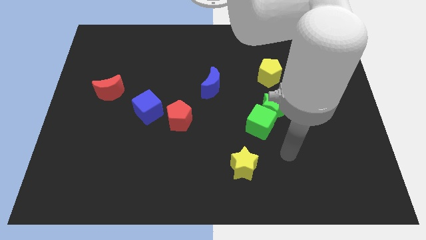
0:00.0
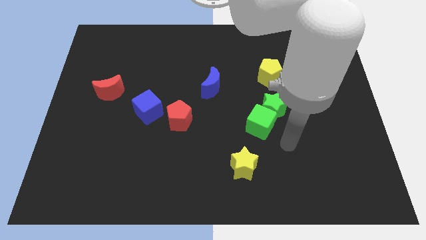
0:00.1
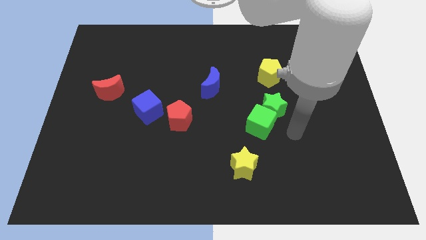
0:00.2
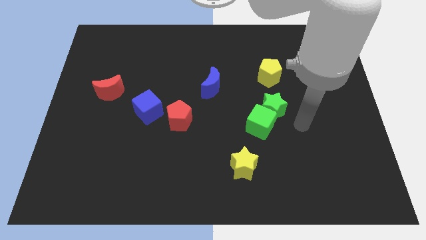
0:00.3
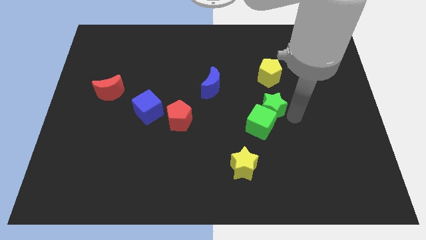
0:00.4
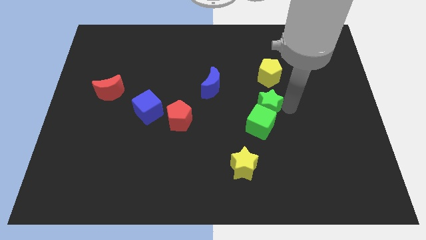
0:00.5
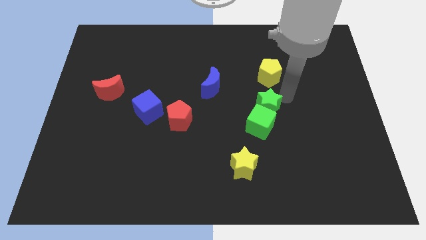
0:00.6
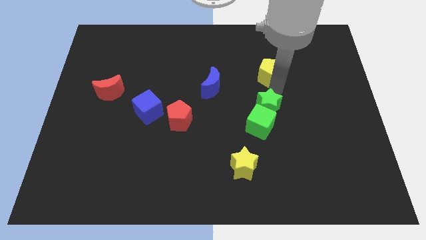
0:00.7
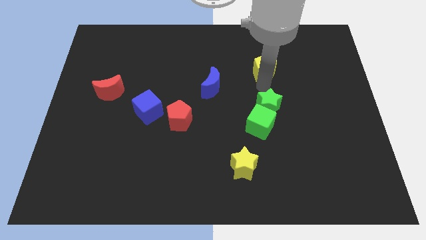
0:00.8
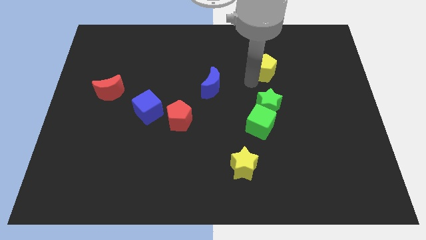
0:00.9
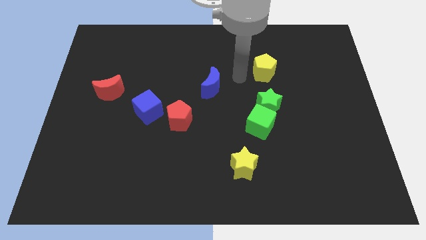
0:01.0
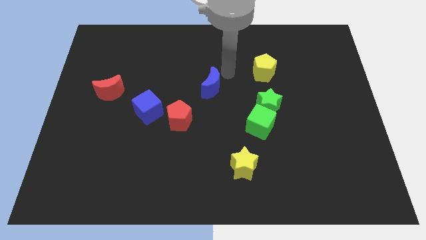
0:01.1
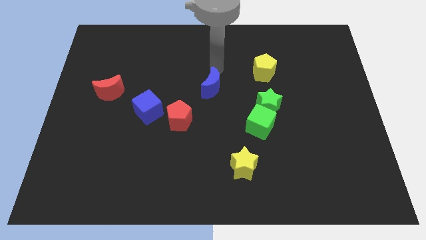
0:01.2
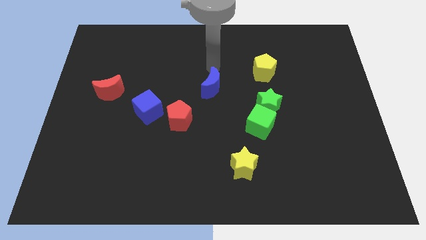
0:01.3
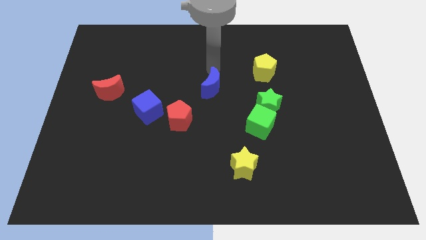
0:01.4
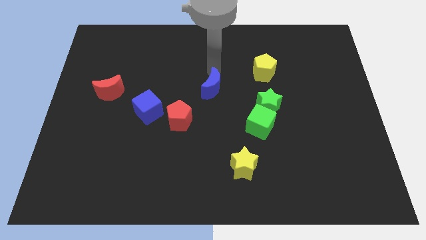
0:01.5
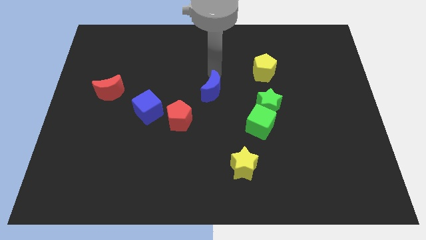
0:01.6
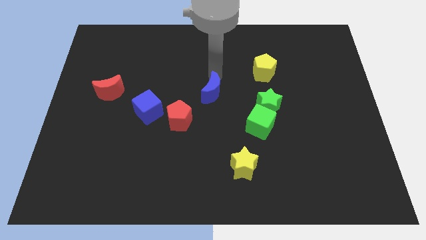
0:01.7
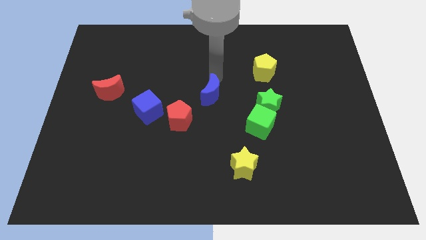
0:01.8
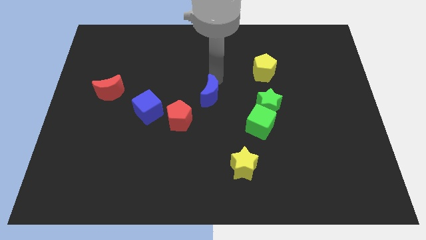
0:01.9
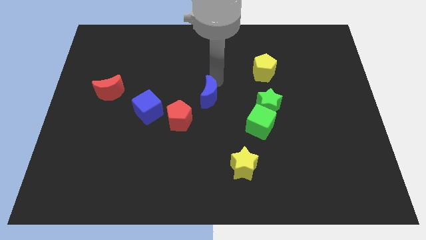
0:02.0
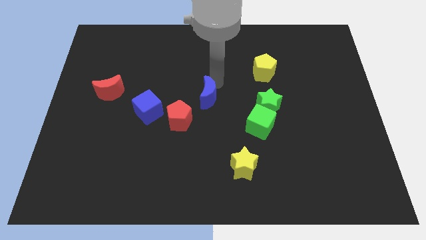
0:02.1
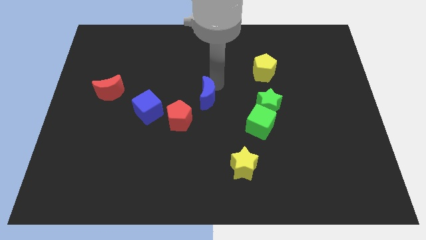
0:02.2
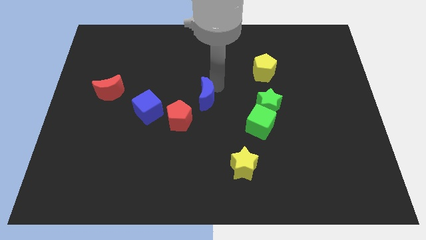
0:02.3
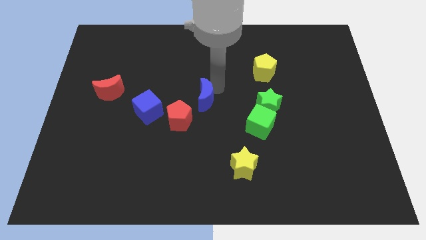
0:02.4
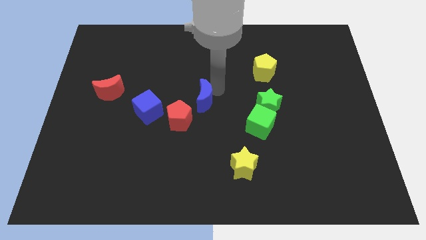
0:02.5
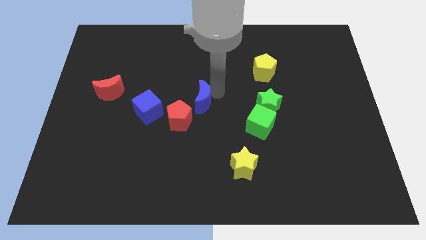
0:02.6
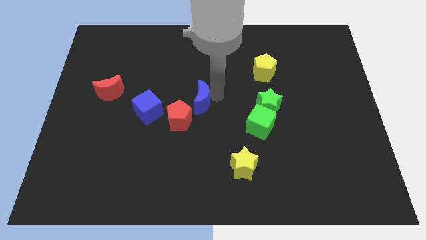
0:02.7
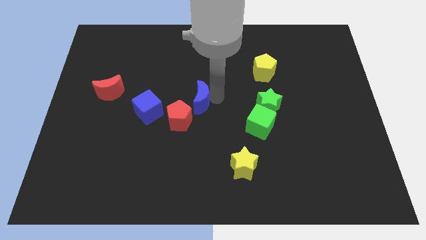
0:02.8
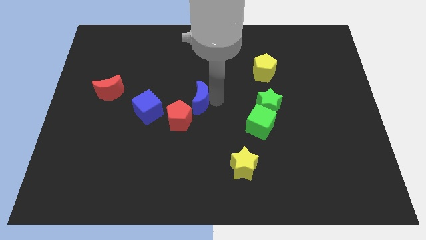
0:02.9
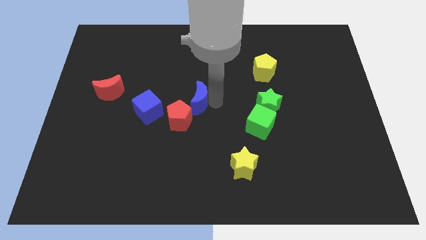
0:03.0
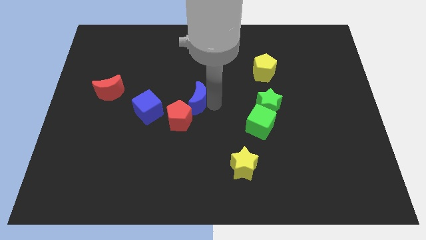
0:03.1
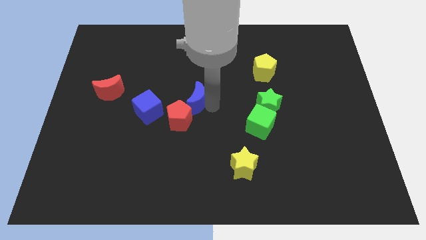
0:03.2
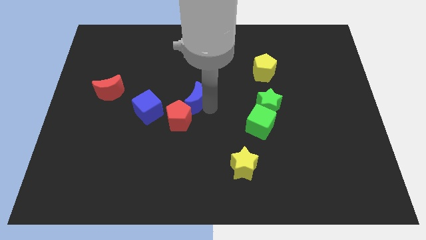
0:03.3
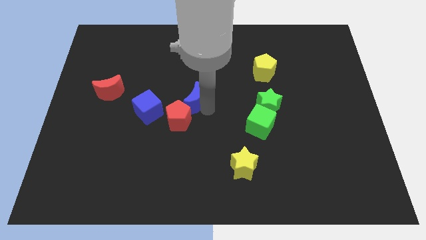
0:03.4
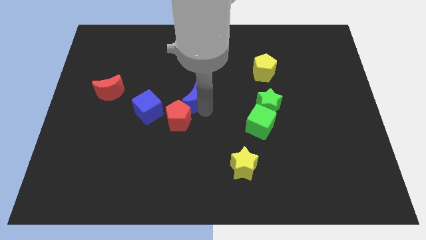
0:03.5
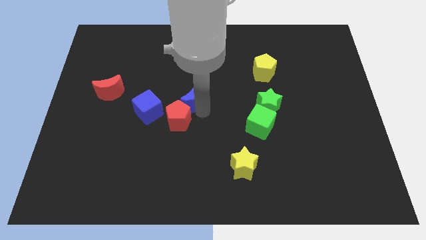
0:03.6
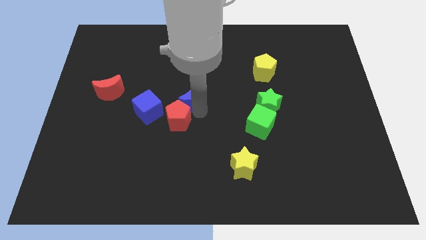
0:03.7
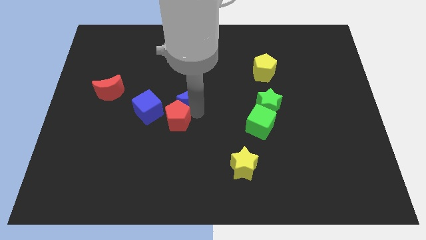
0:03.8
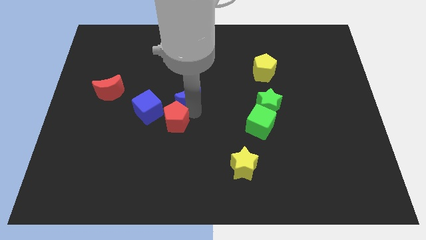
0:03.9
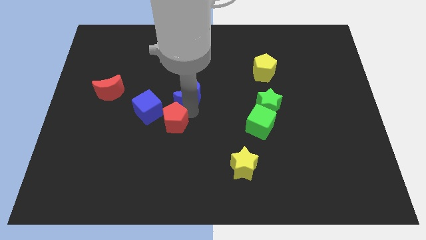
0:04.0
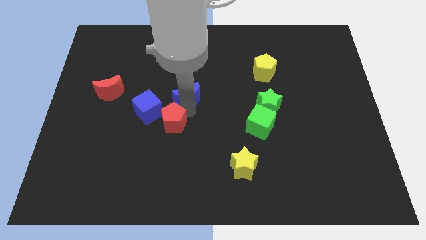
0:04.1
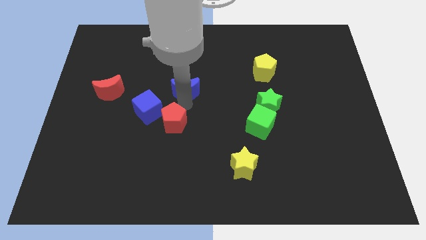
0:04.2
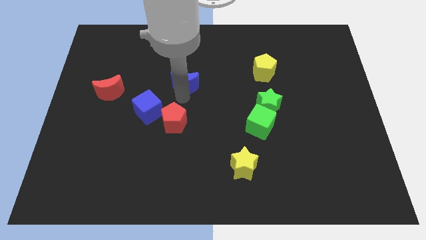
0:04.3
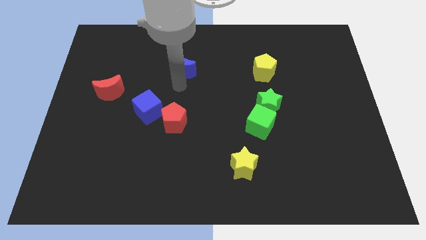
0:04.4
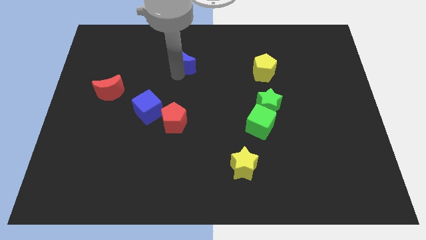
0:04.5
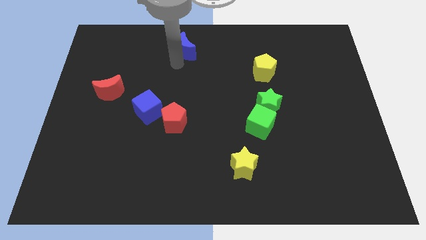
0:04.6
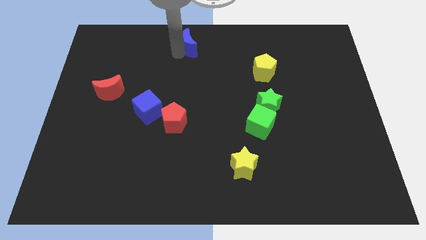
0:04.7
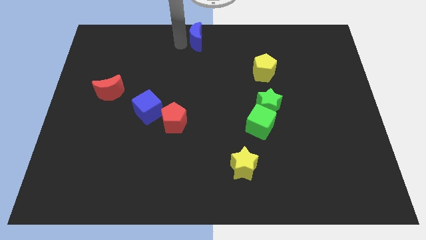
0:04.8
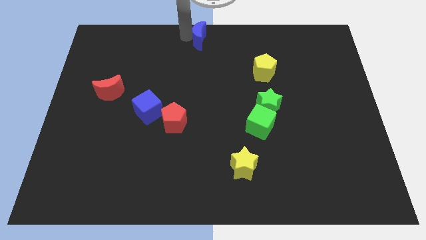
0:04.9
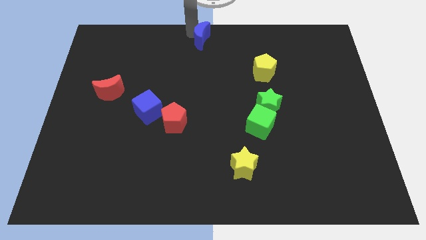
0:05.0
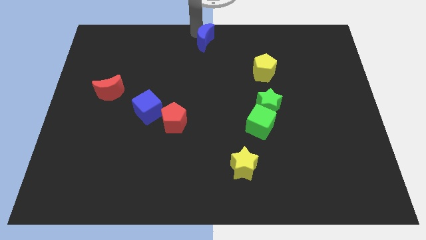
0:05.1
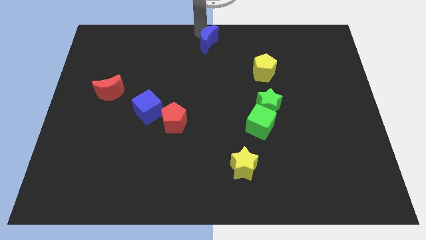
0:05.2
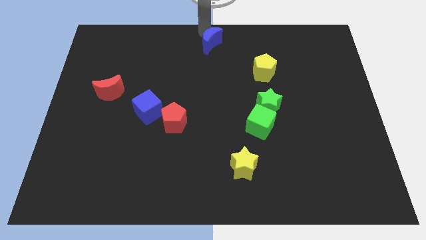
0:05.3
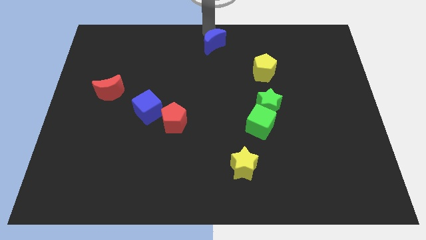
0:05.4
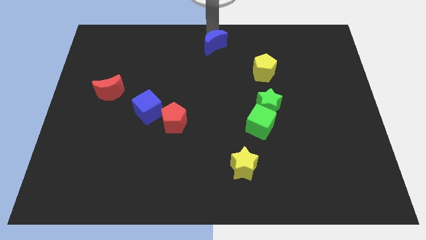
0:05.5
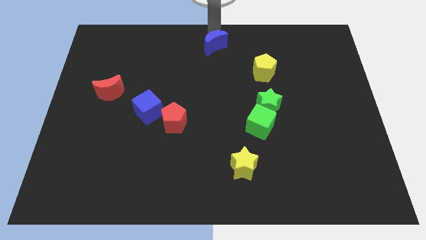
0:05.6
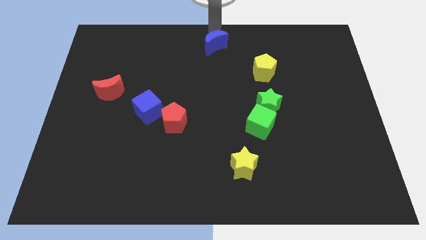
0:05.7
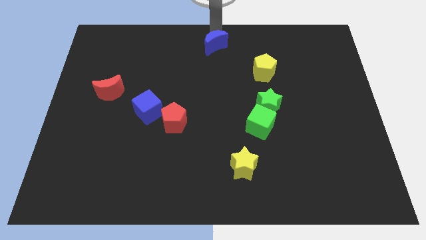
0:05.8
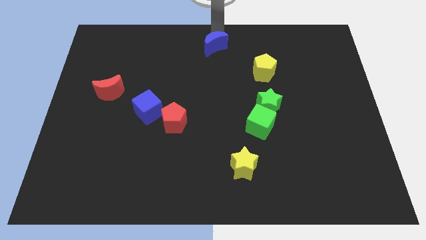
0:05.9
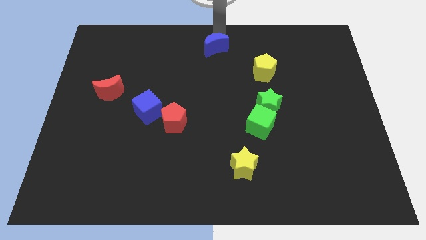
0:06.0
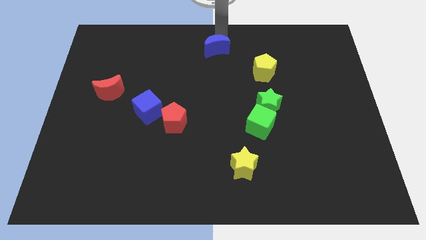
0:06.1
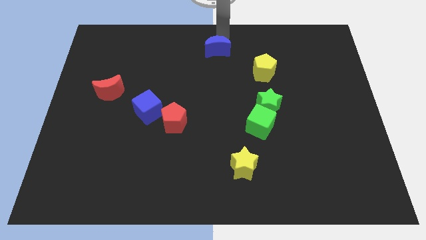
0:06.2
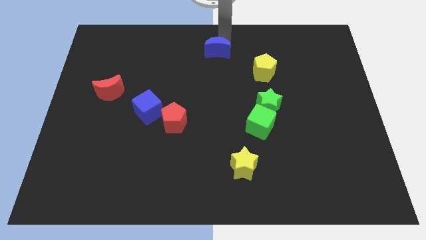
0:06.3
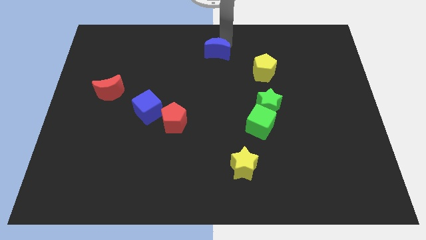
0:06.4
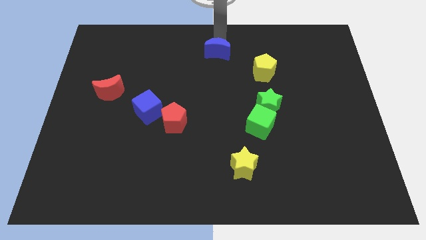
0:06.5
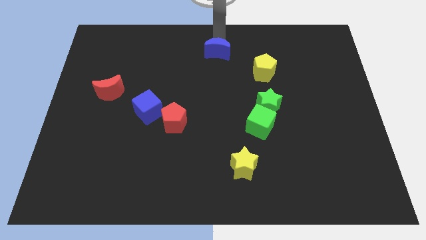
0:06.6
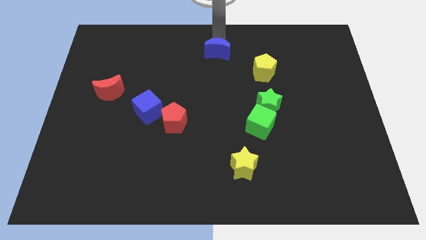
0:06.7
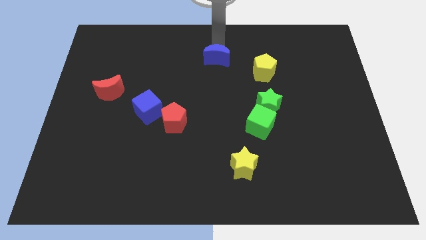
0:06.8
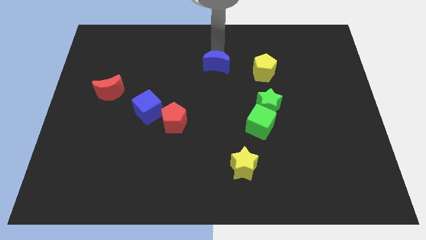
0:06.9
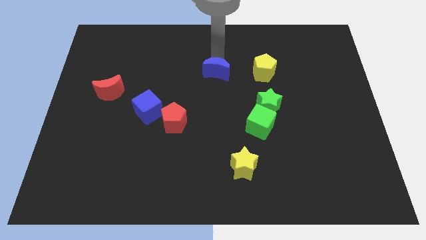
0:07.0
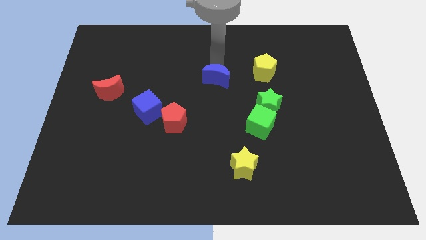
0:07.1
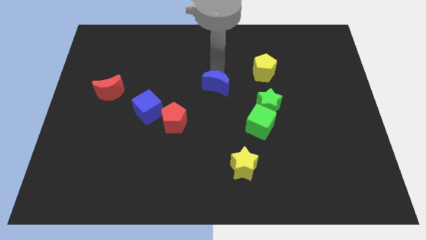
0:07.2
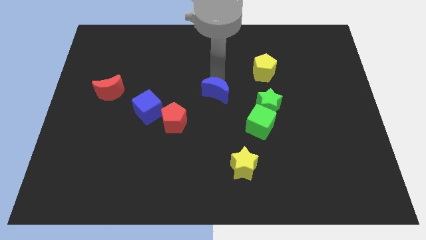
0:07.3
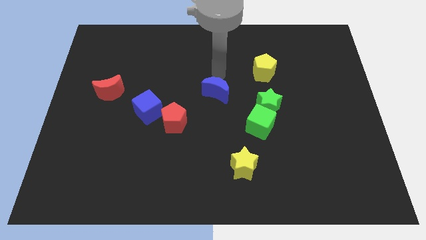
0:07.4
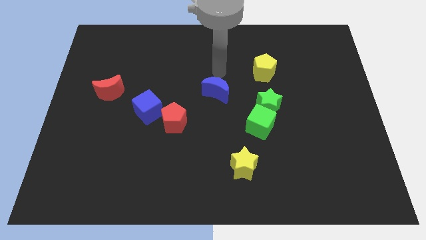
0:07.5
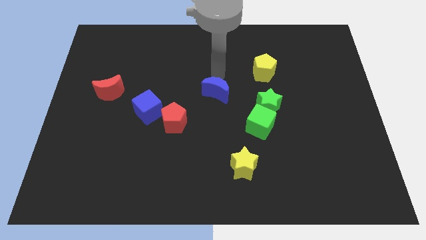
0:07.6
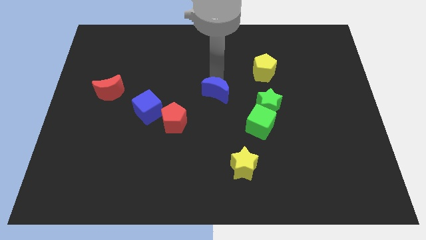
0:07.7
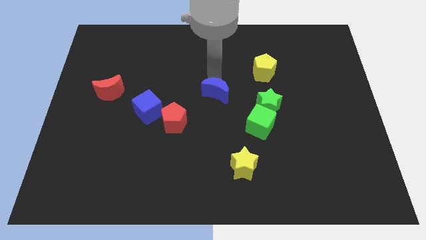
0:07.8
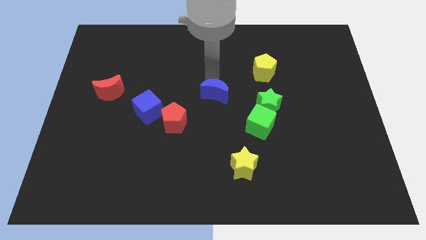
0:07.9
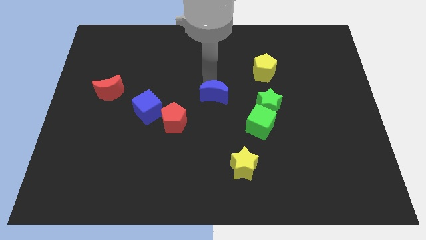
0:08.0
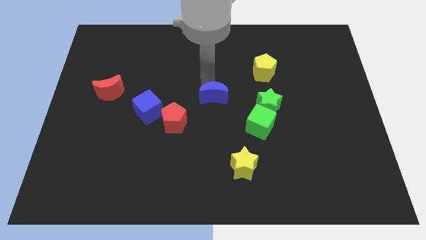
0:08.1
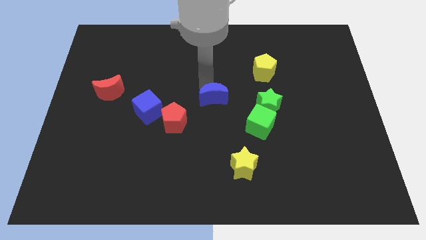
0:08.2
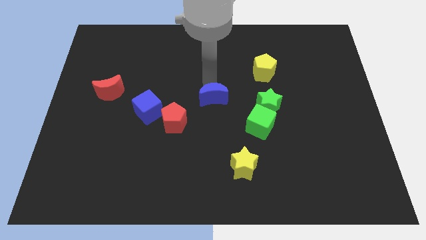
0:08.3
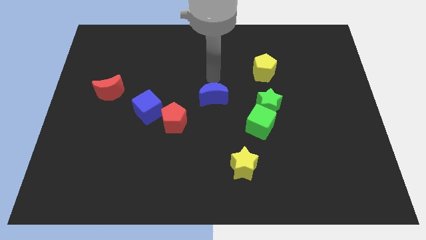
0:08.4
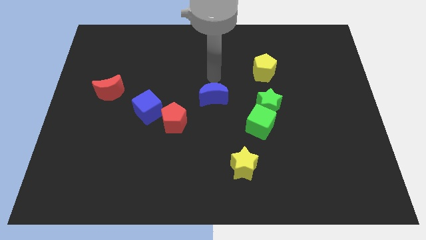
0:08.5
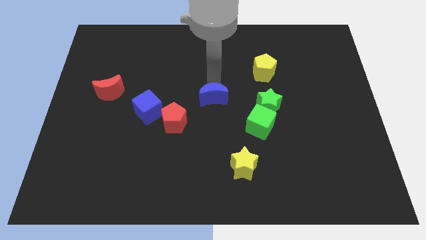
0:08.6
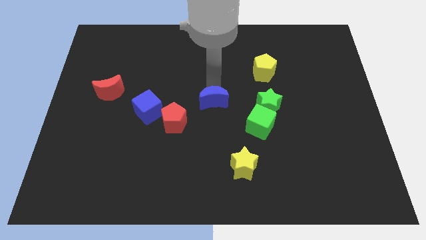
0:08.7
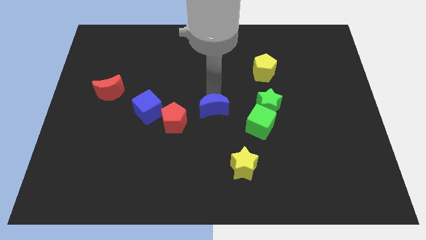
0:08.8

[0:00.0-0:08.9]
slightly push the blue moon down
